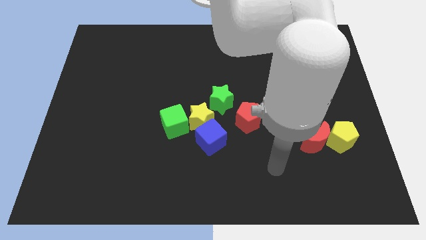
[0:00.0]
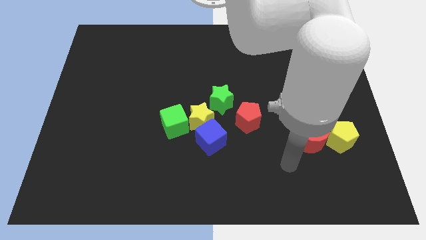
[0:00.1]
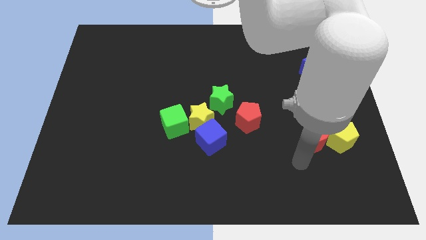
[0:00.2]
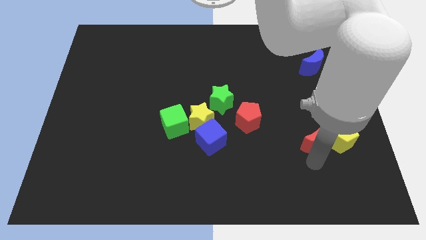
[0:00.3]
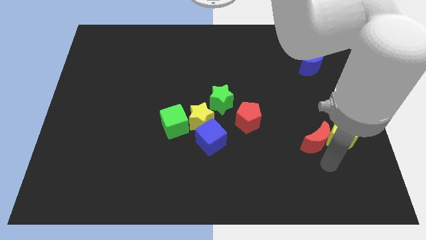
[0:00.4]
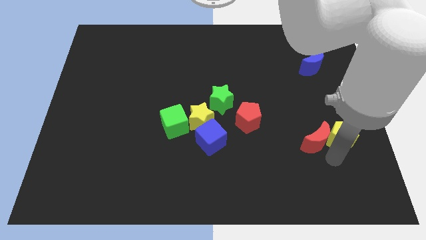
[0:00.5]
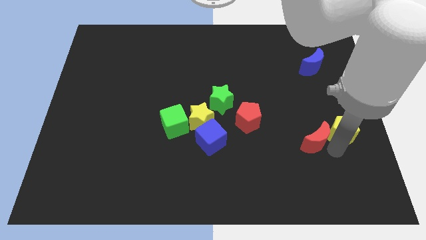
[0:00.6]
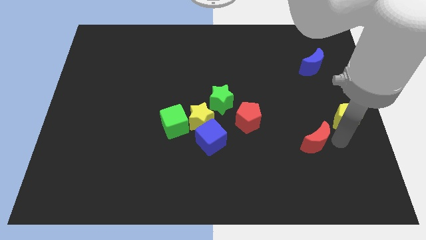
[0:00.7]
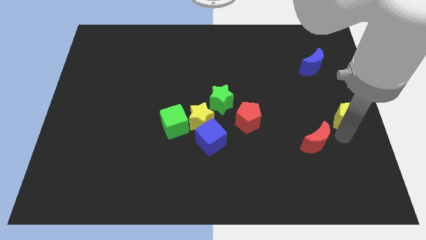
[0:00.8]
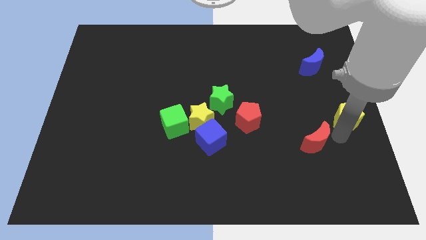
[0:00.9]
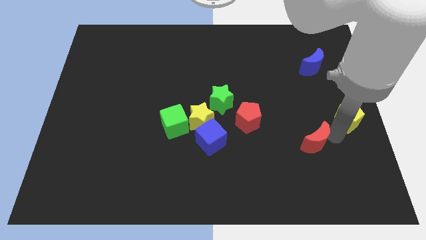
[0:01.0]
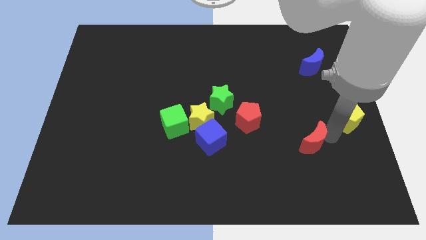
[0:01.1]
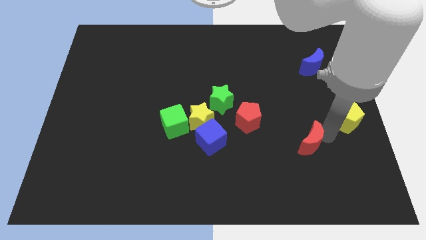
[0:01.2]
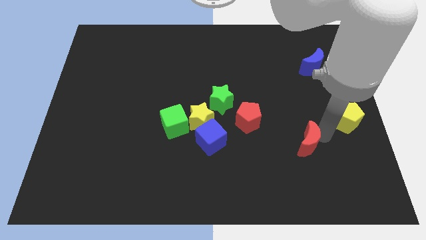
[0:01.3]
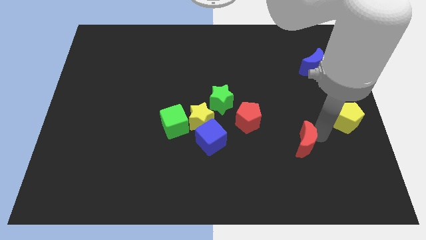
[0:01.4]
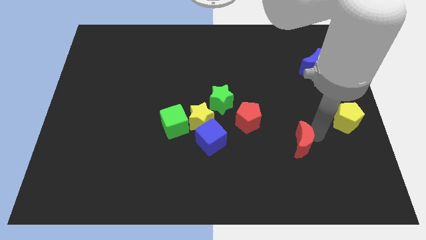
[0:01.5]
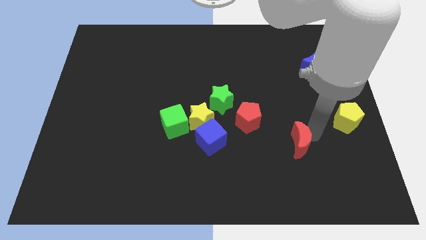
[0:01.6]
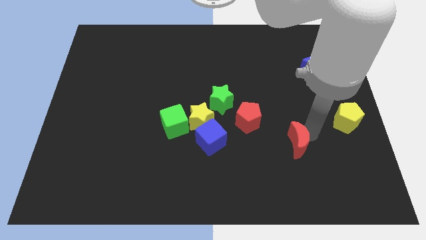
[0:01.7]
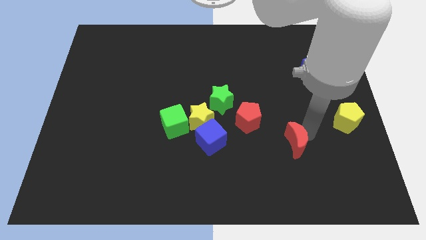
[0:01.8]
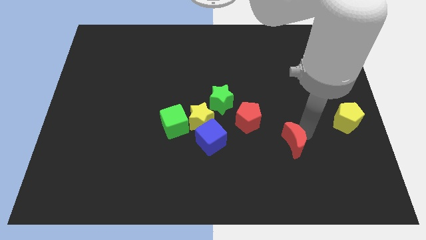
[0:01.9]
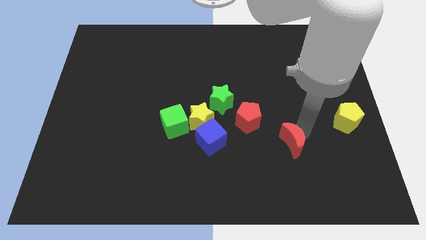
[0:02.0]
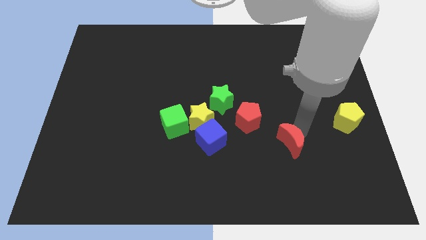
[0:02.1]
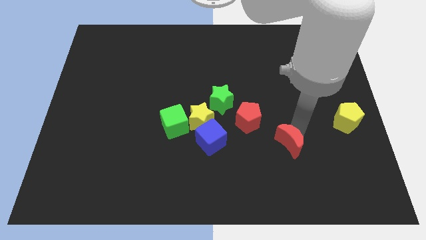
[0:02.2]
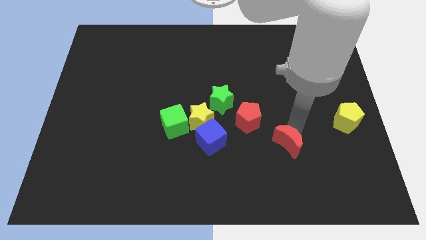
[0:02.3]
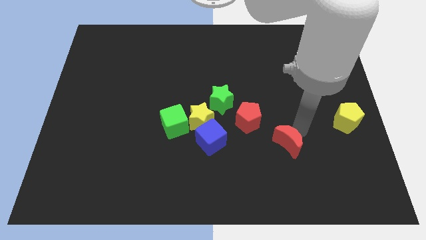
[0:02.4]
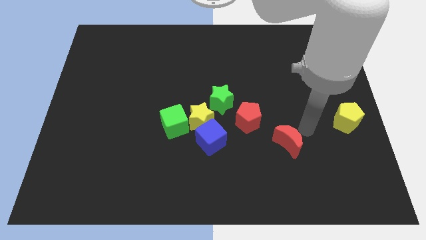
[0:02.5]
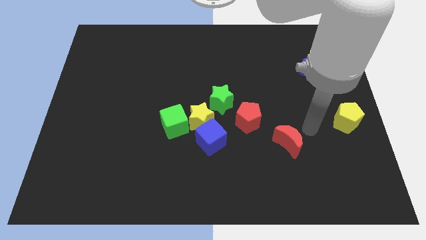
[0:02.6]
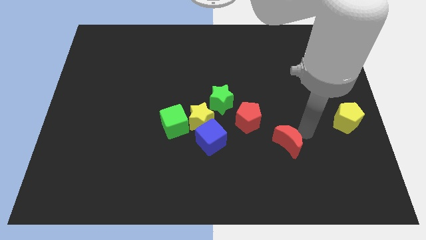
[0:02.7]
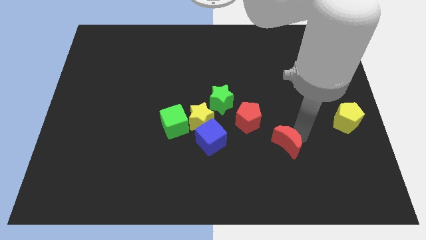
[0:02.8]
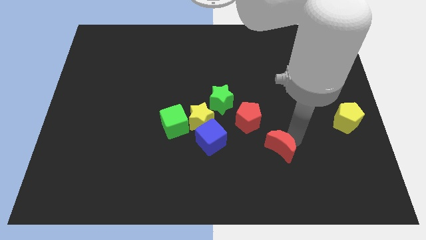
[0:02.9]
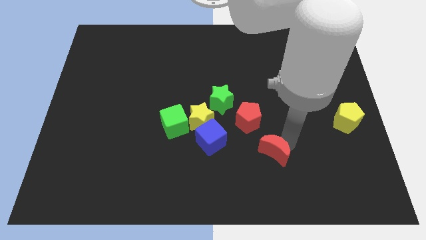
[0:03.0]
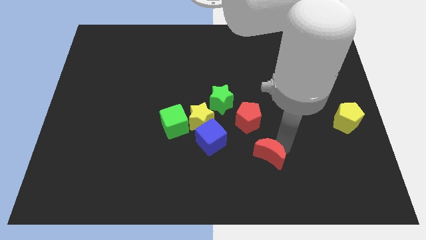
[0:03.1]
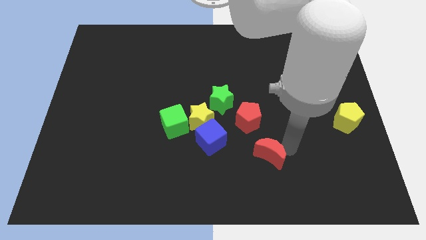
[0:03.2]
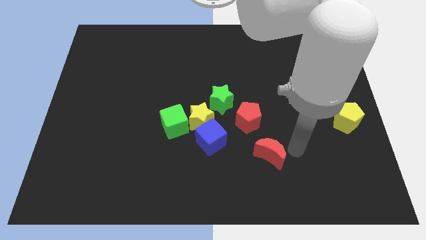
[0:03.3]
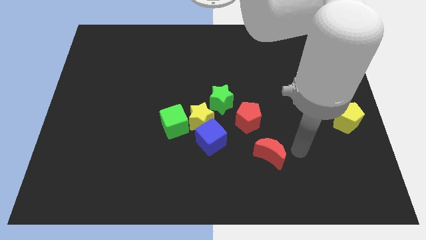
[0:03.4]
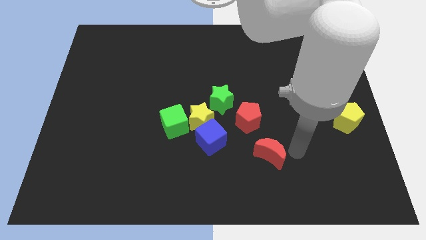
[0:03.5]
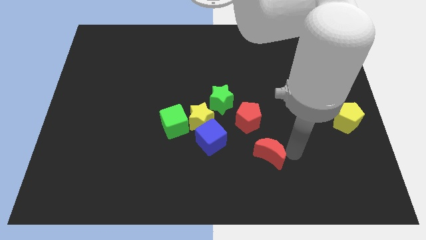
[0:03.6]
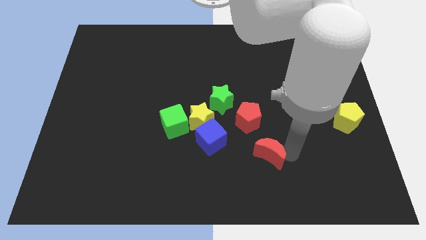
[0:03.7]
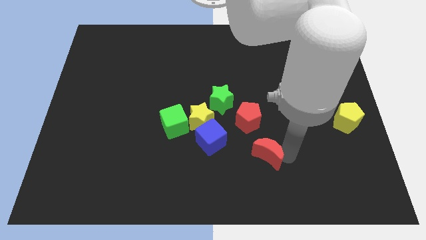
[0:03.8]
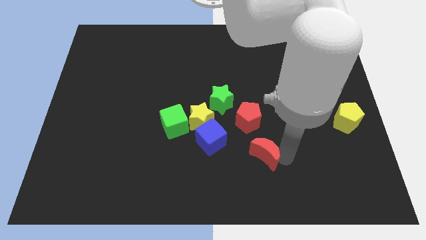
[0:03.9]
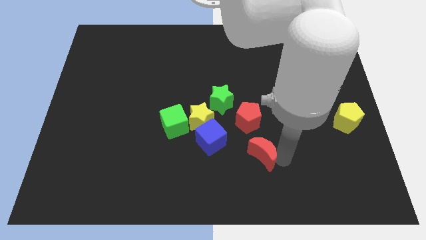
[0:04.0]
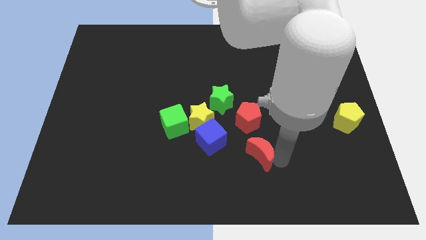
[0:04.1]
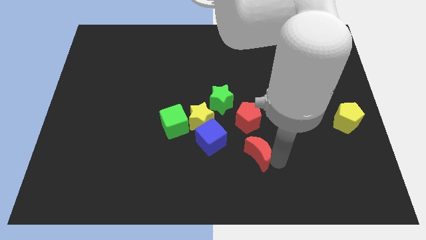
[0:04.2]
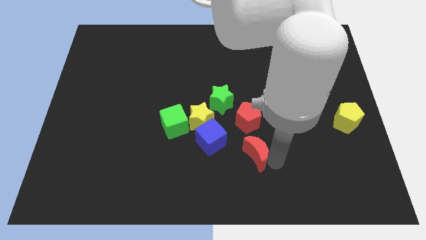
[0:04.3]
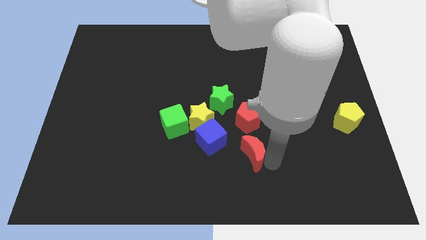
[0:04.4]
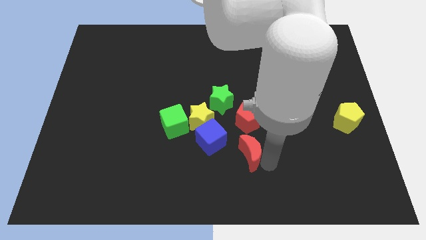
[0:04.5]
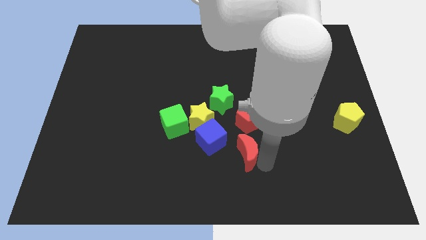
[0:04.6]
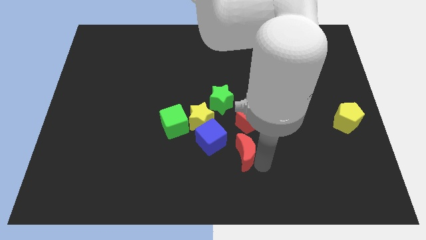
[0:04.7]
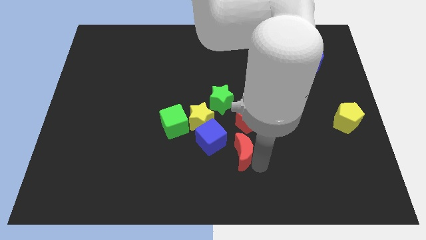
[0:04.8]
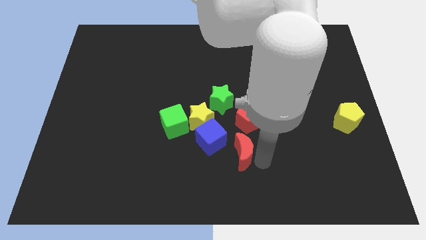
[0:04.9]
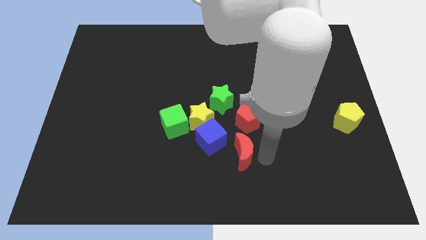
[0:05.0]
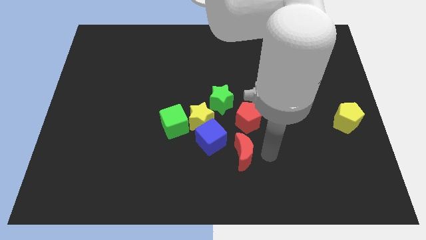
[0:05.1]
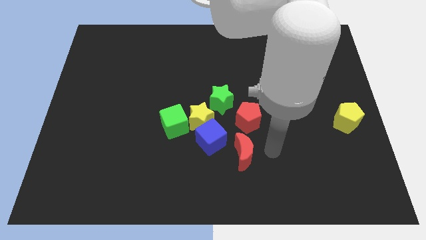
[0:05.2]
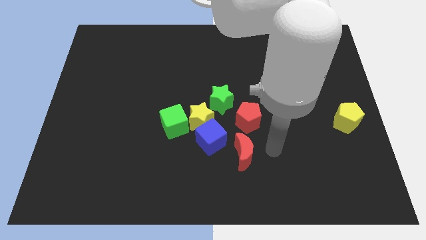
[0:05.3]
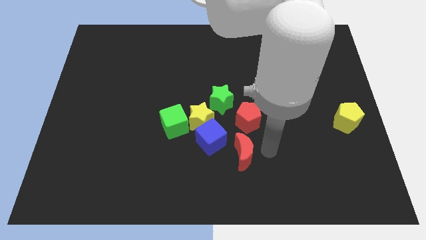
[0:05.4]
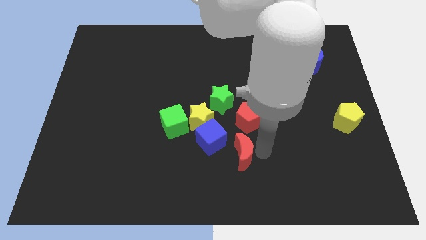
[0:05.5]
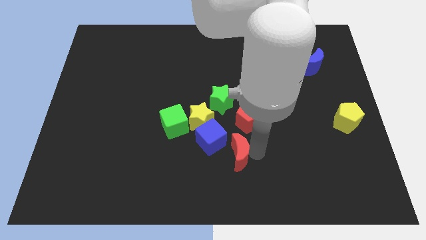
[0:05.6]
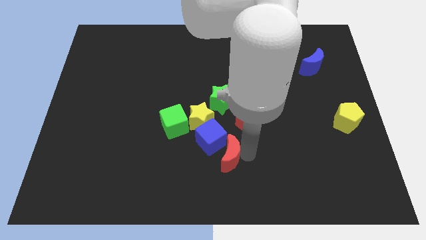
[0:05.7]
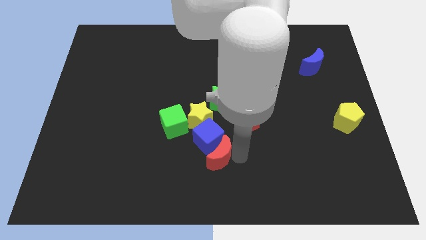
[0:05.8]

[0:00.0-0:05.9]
move the red moon to the bottom side of the yellow star
